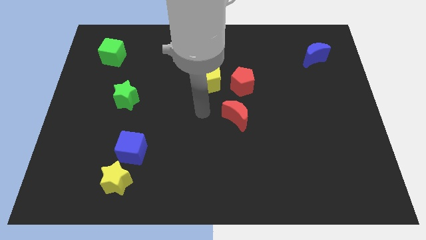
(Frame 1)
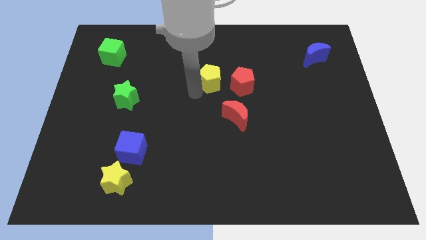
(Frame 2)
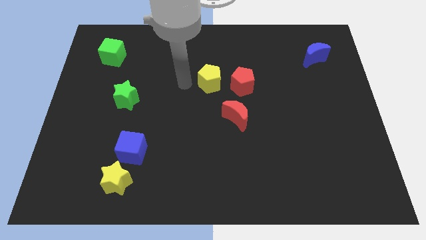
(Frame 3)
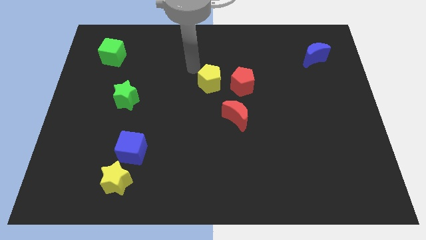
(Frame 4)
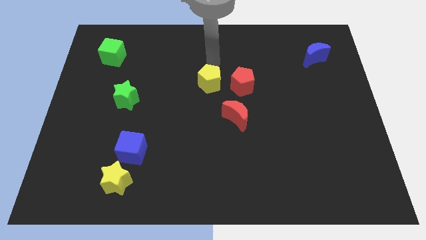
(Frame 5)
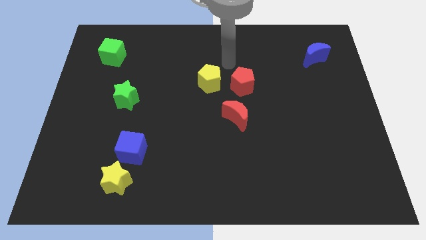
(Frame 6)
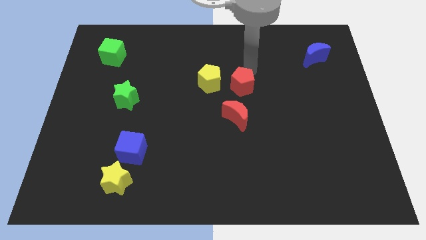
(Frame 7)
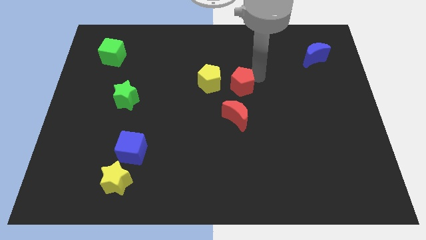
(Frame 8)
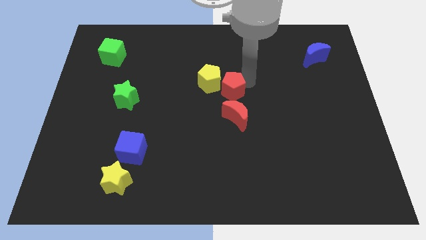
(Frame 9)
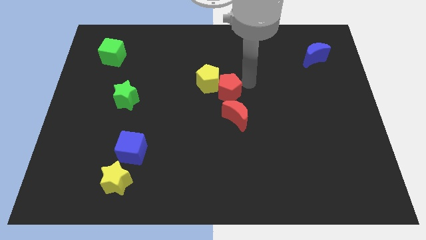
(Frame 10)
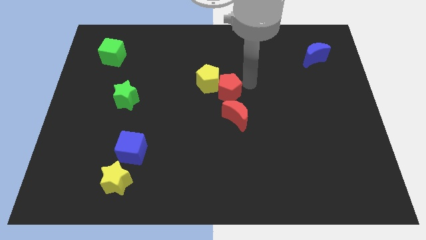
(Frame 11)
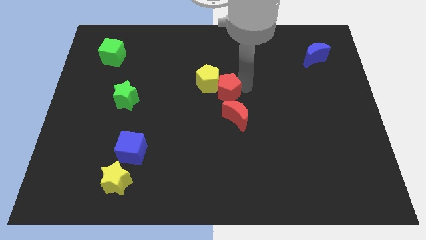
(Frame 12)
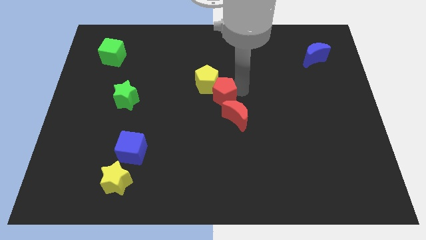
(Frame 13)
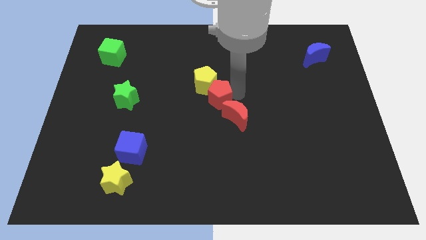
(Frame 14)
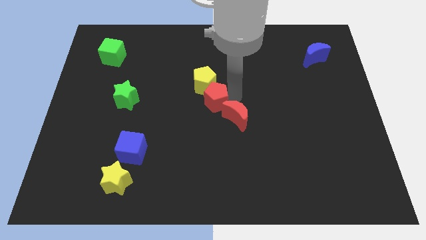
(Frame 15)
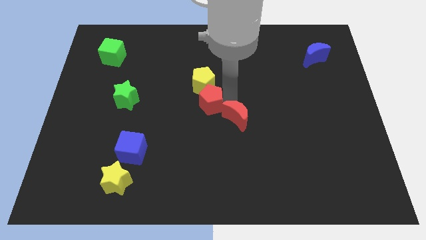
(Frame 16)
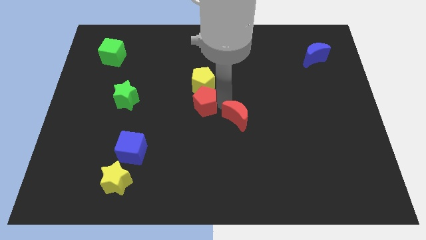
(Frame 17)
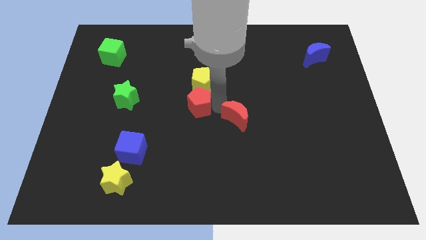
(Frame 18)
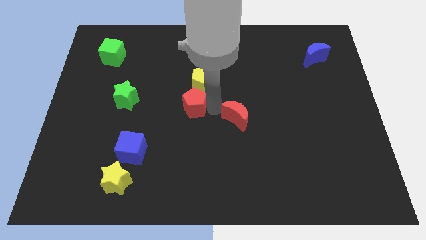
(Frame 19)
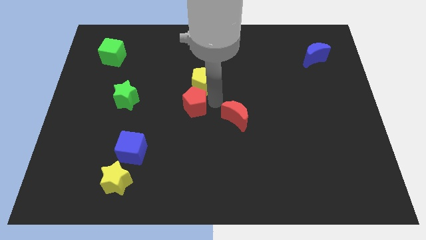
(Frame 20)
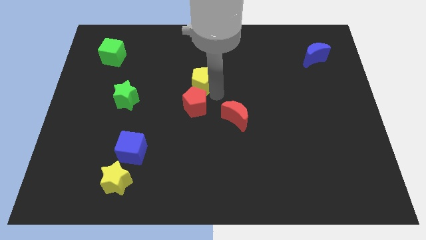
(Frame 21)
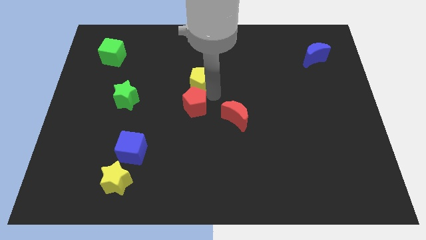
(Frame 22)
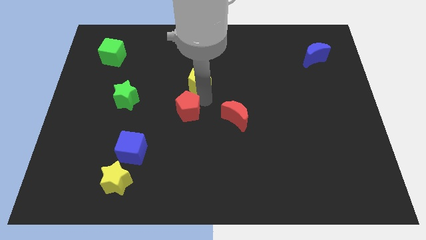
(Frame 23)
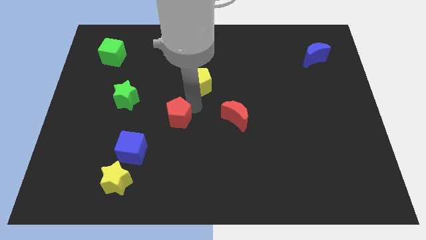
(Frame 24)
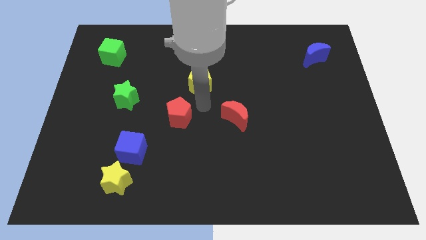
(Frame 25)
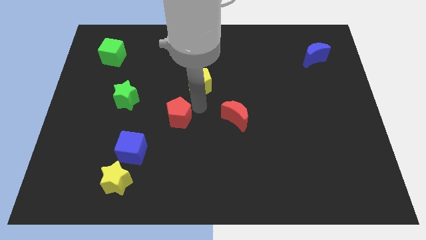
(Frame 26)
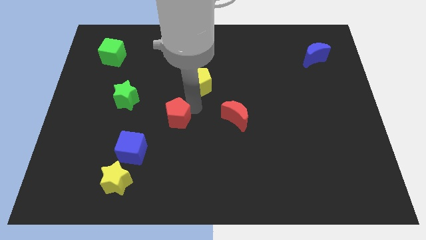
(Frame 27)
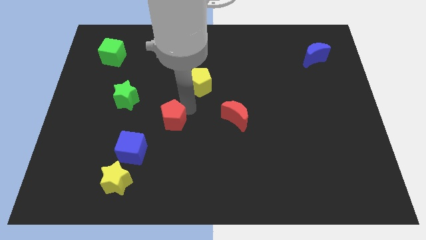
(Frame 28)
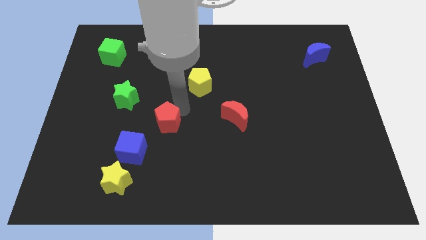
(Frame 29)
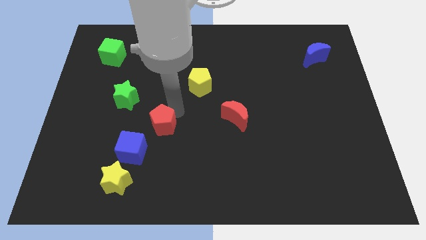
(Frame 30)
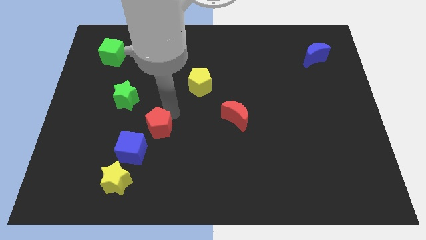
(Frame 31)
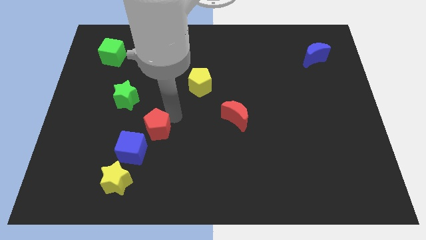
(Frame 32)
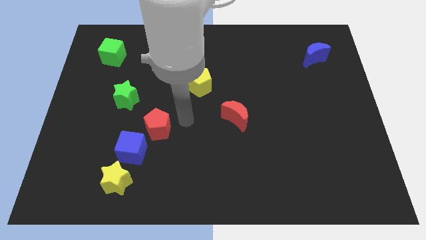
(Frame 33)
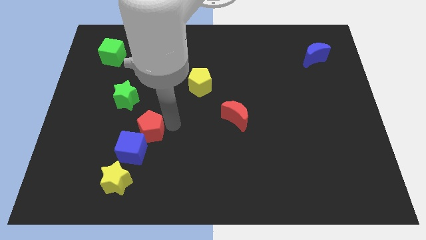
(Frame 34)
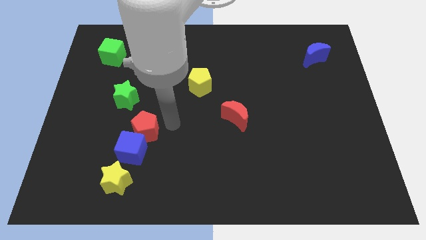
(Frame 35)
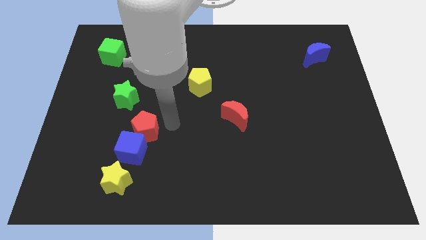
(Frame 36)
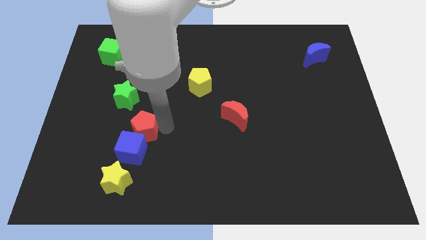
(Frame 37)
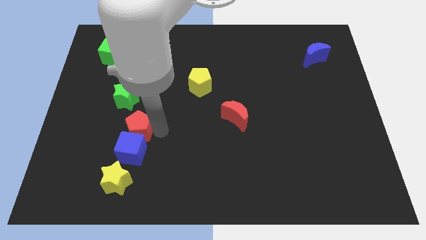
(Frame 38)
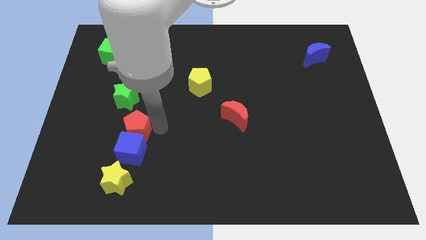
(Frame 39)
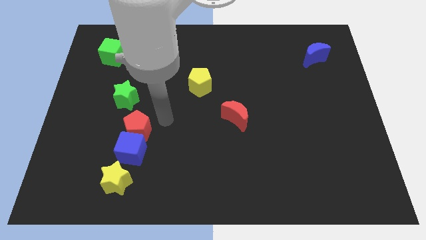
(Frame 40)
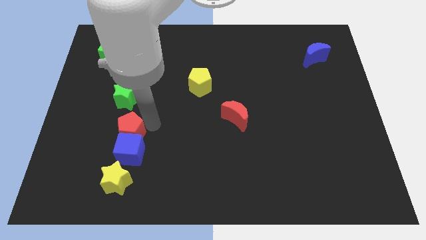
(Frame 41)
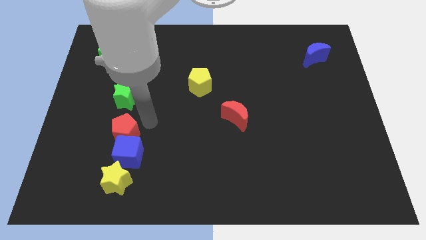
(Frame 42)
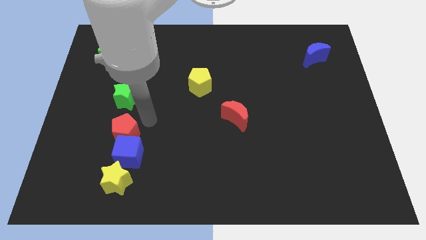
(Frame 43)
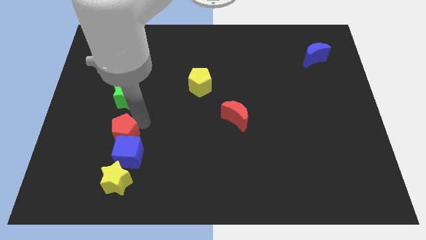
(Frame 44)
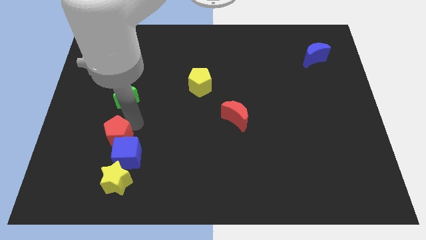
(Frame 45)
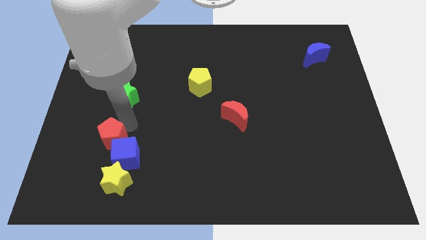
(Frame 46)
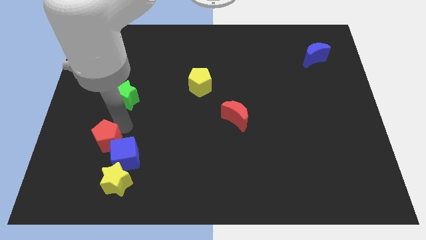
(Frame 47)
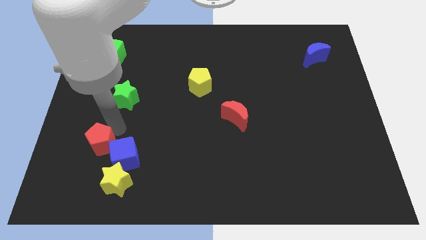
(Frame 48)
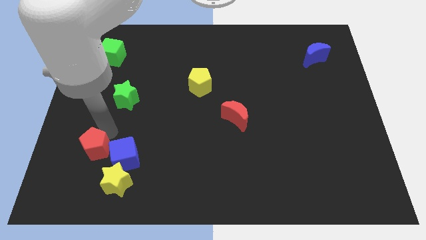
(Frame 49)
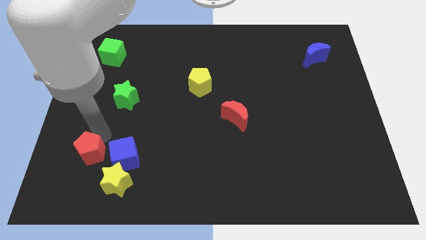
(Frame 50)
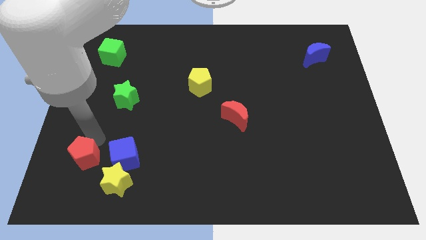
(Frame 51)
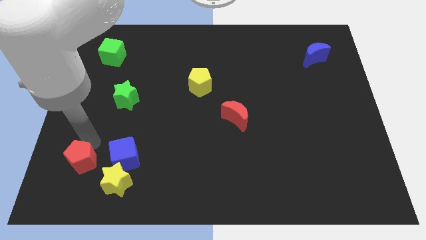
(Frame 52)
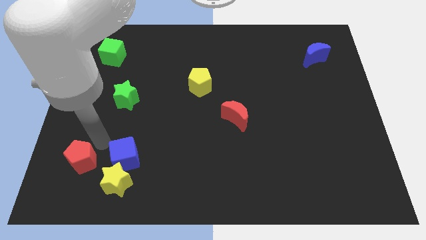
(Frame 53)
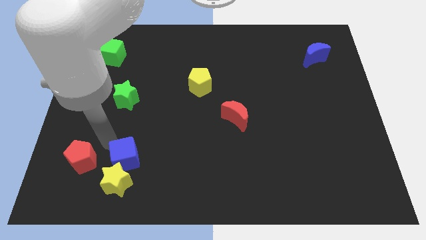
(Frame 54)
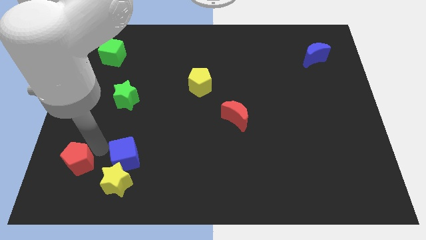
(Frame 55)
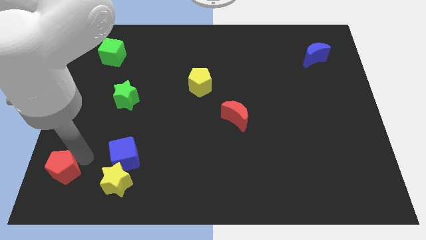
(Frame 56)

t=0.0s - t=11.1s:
push the red pentagon to the bottom left

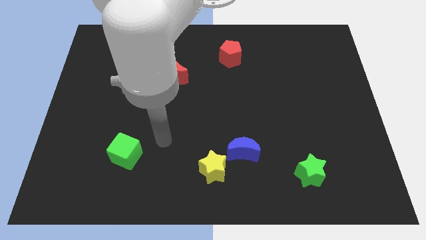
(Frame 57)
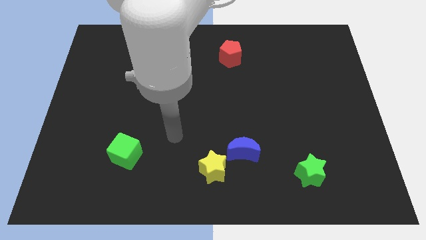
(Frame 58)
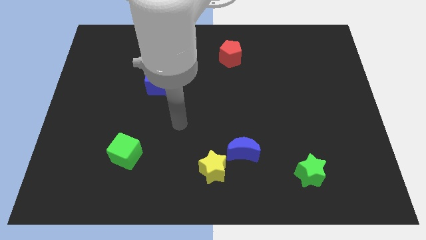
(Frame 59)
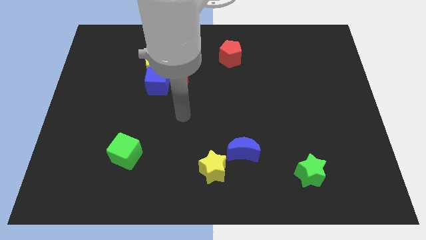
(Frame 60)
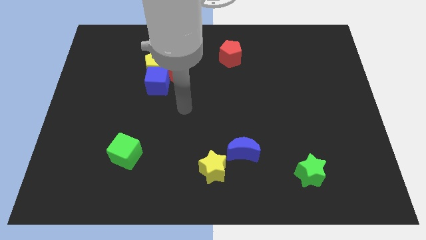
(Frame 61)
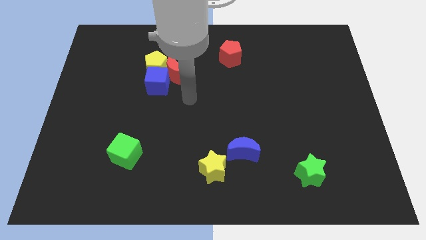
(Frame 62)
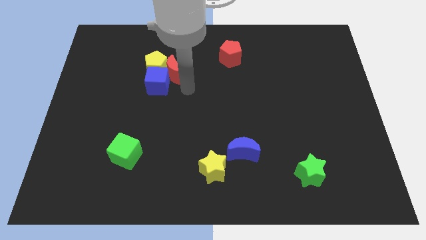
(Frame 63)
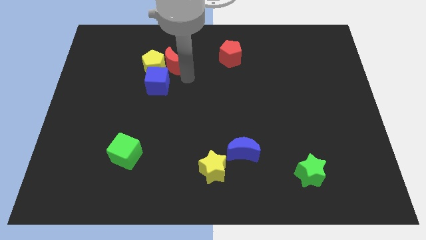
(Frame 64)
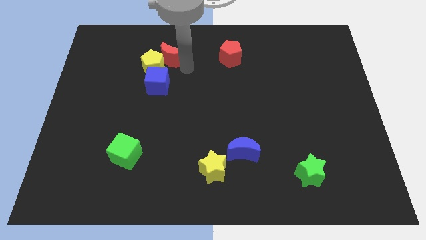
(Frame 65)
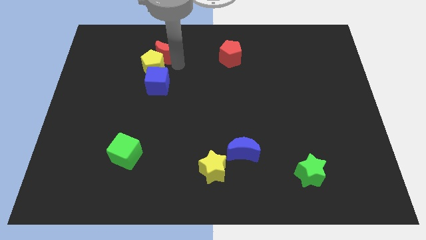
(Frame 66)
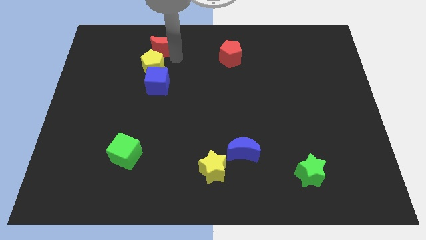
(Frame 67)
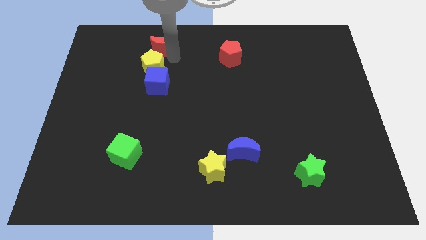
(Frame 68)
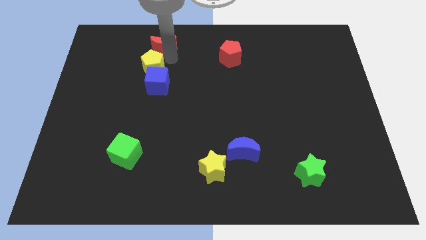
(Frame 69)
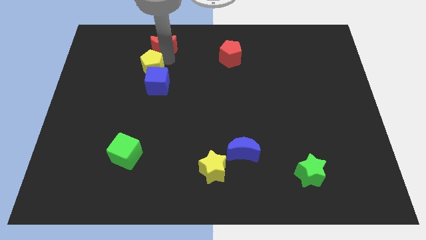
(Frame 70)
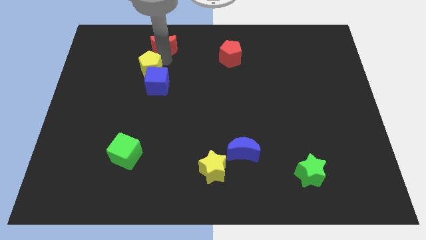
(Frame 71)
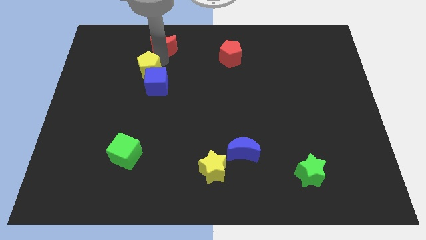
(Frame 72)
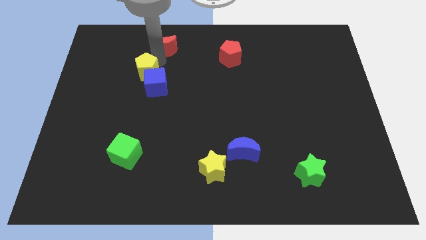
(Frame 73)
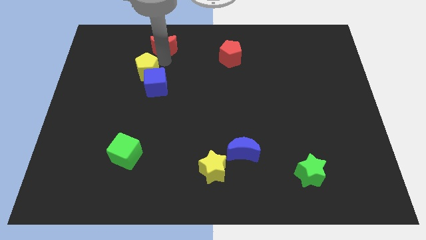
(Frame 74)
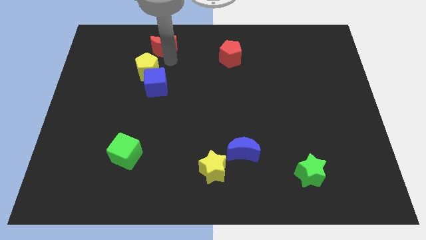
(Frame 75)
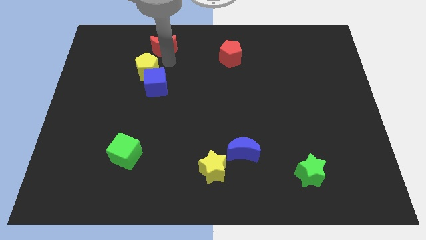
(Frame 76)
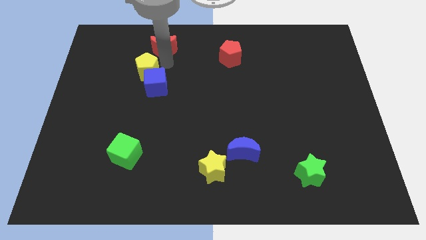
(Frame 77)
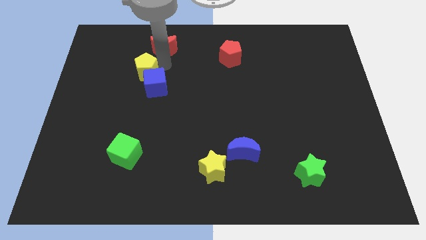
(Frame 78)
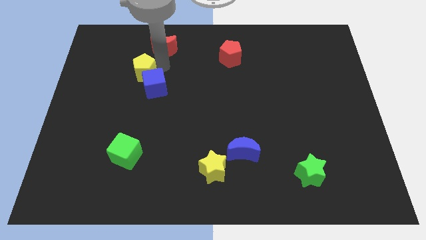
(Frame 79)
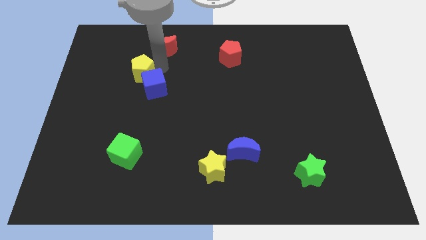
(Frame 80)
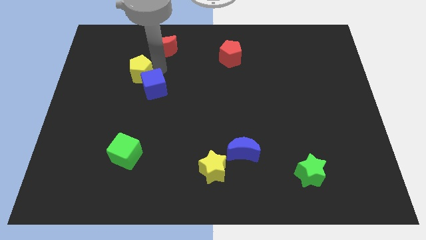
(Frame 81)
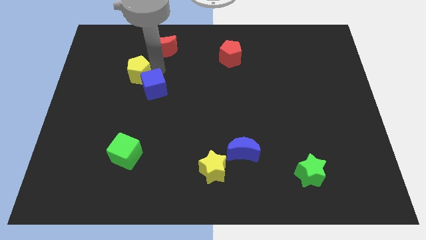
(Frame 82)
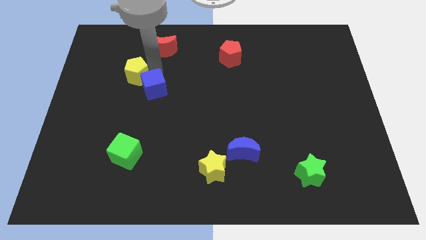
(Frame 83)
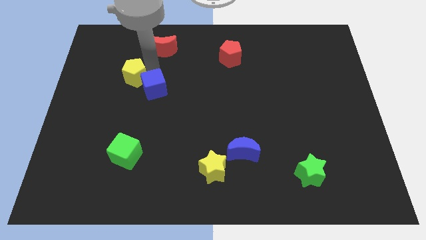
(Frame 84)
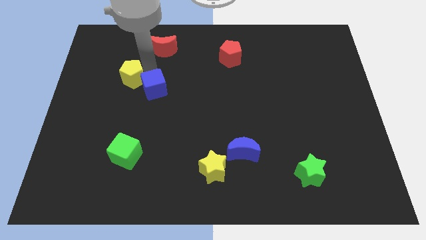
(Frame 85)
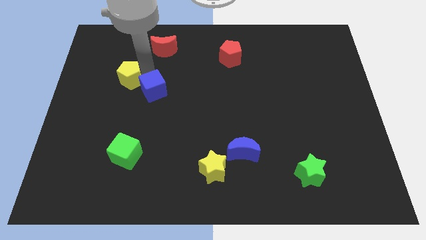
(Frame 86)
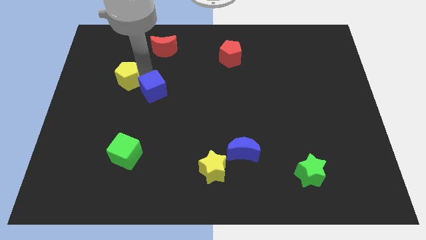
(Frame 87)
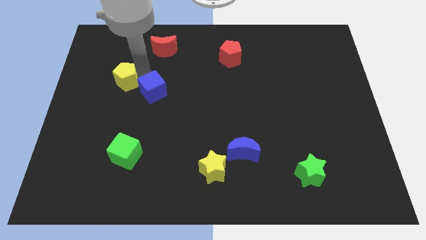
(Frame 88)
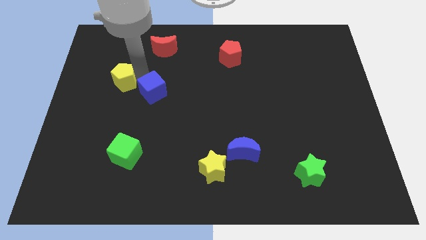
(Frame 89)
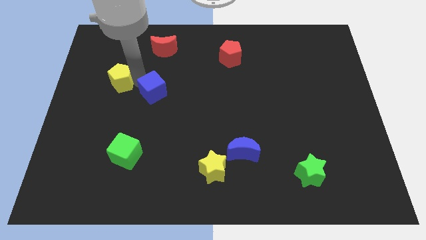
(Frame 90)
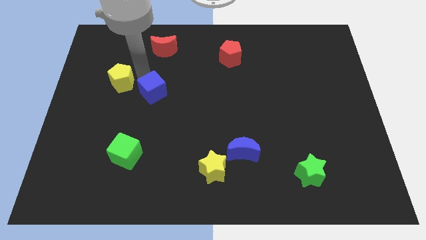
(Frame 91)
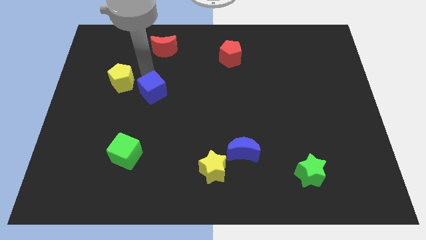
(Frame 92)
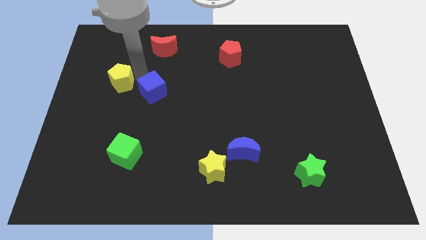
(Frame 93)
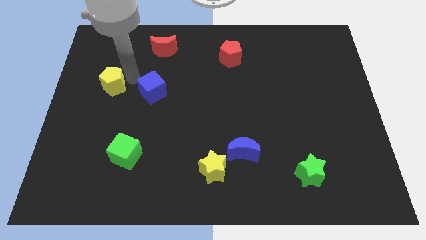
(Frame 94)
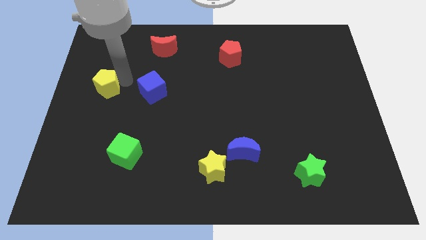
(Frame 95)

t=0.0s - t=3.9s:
slide the yellow pentagon to the center left
